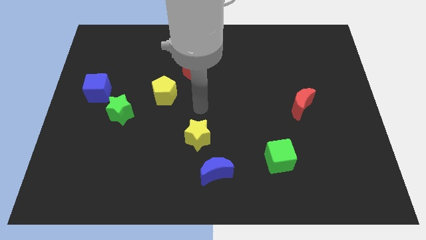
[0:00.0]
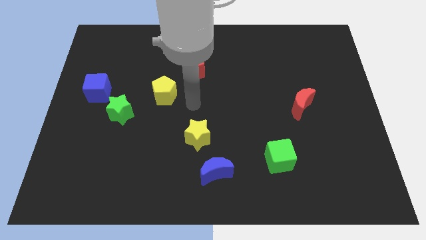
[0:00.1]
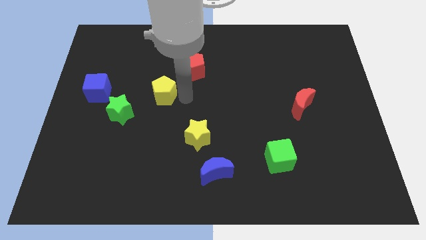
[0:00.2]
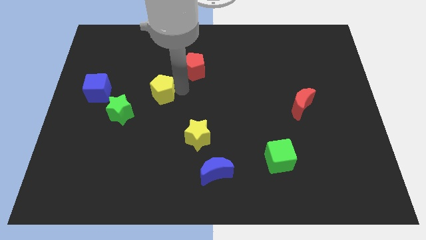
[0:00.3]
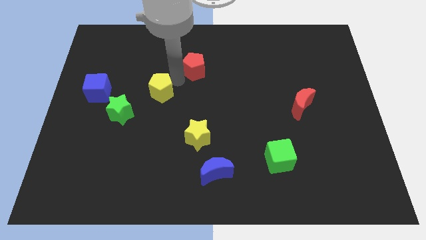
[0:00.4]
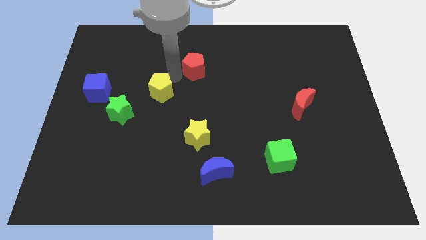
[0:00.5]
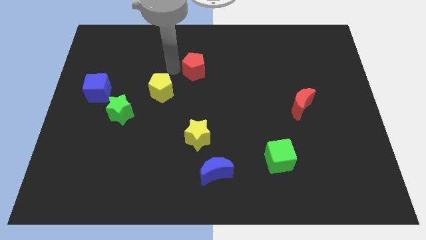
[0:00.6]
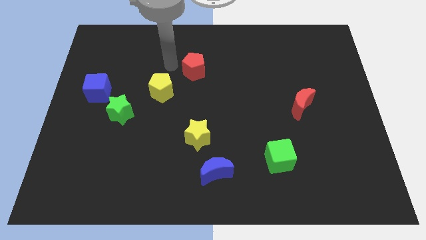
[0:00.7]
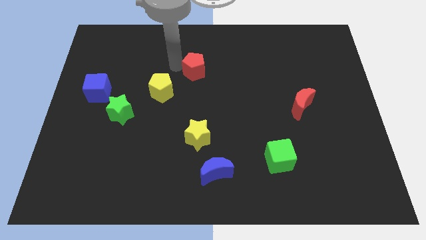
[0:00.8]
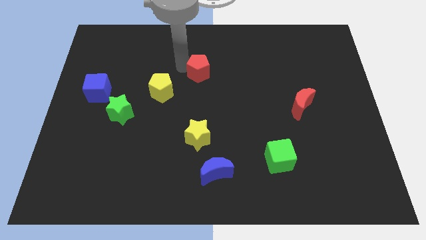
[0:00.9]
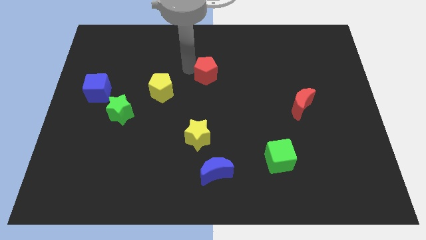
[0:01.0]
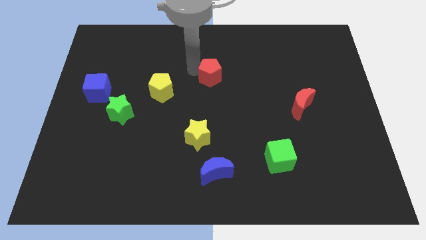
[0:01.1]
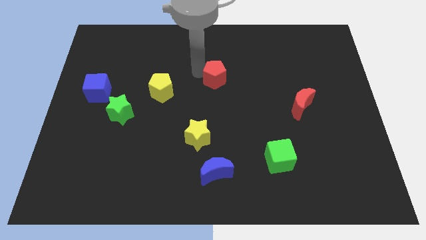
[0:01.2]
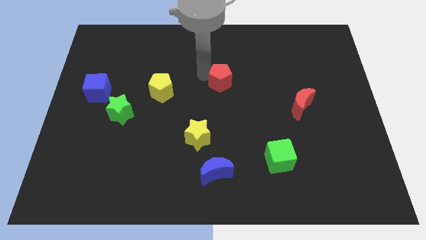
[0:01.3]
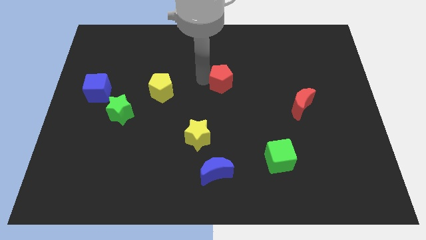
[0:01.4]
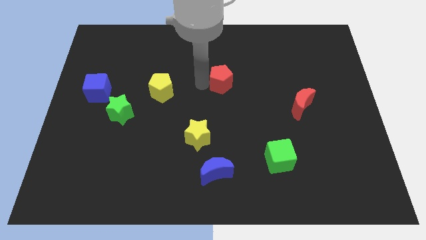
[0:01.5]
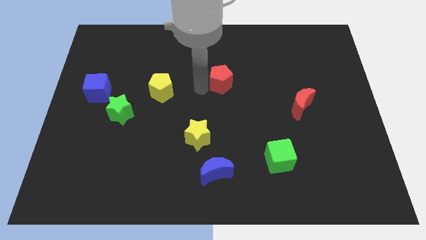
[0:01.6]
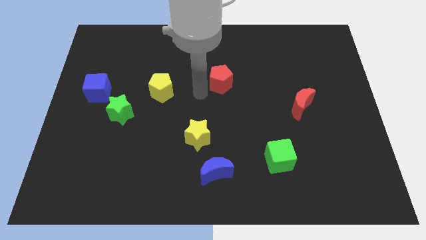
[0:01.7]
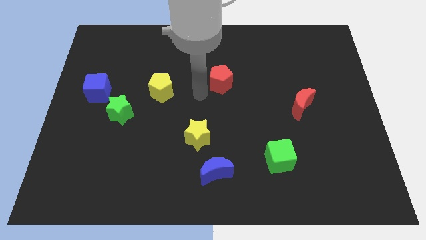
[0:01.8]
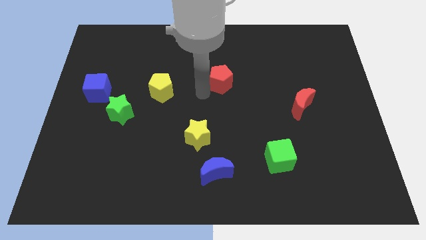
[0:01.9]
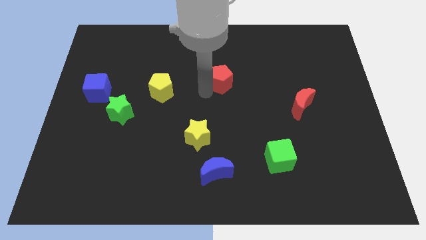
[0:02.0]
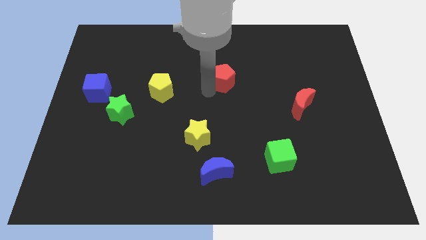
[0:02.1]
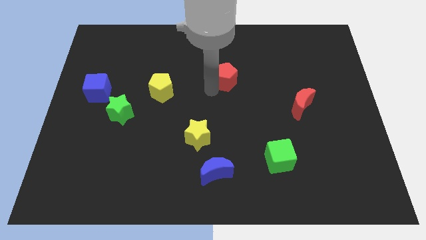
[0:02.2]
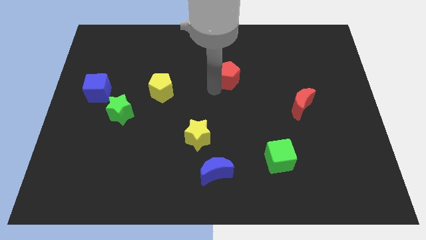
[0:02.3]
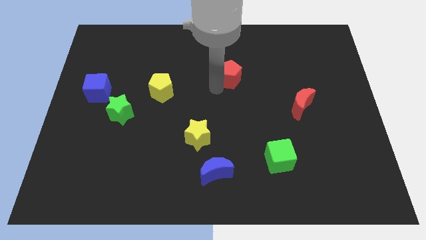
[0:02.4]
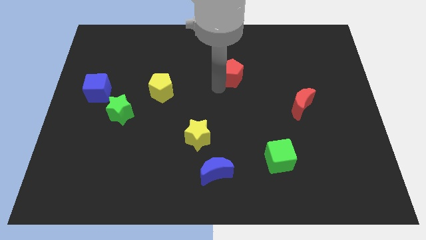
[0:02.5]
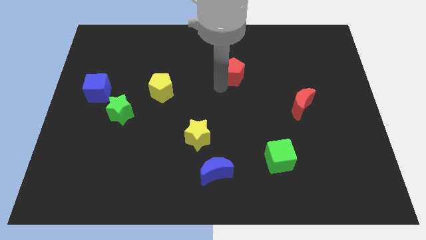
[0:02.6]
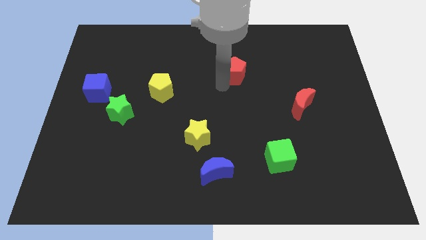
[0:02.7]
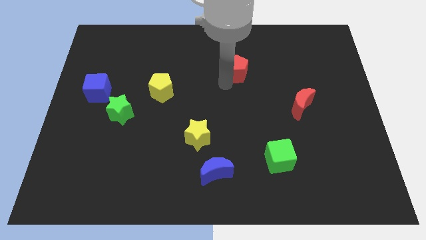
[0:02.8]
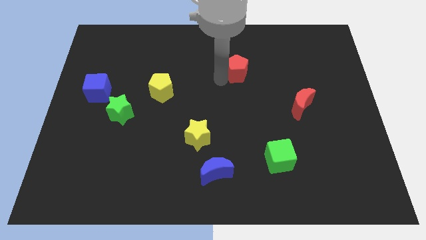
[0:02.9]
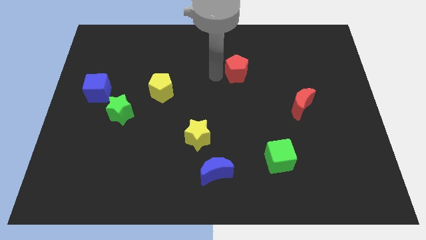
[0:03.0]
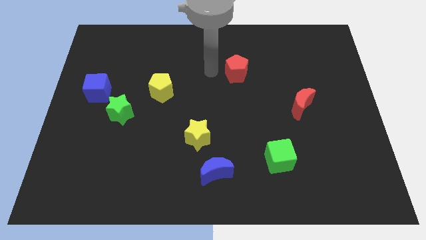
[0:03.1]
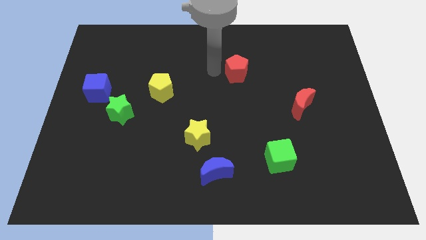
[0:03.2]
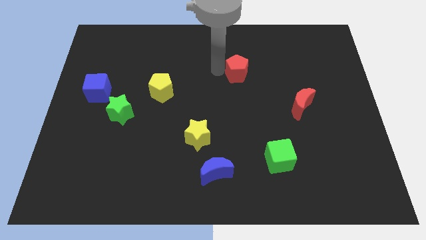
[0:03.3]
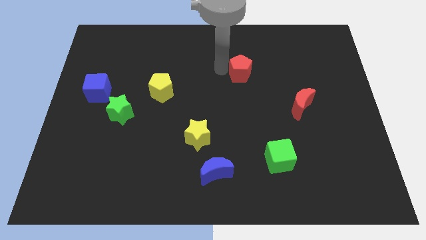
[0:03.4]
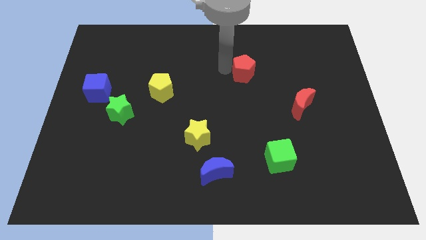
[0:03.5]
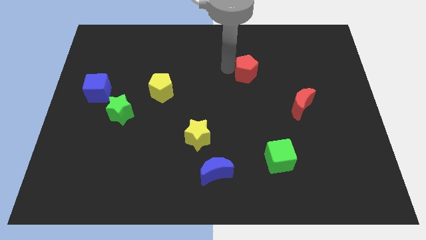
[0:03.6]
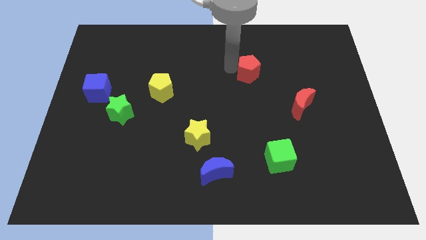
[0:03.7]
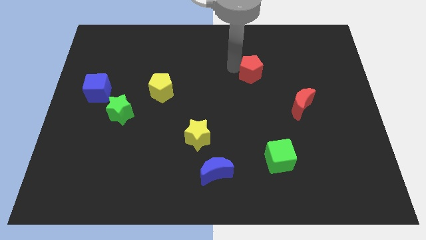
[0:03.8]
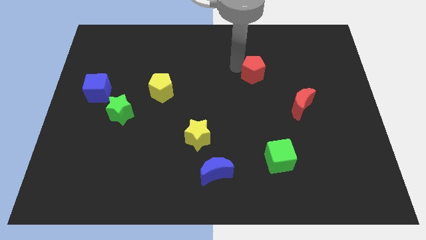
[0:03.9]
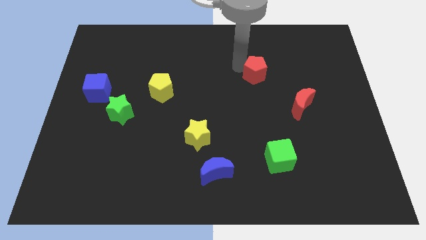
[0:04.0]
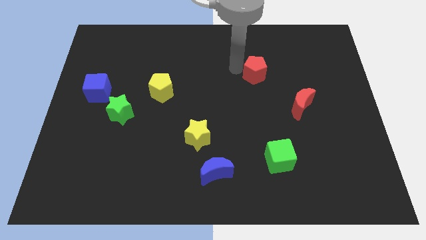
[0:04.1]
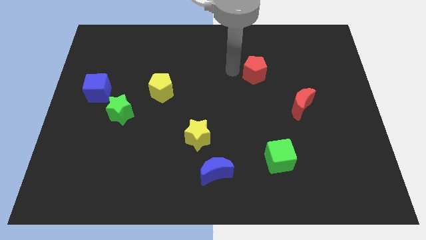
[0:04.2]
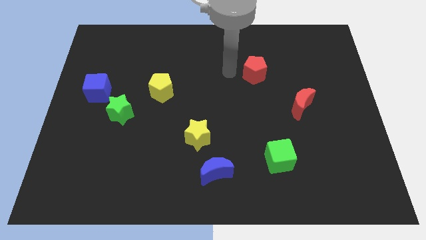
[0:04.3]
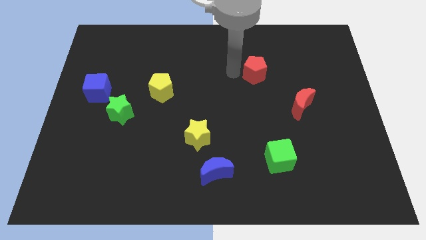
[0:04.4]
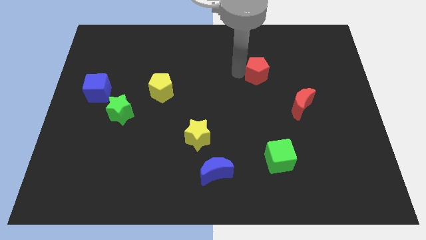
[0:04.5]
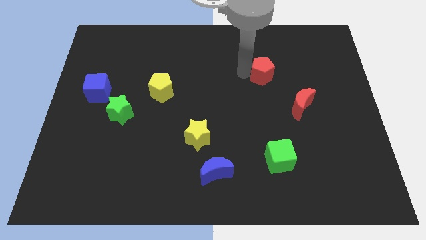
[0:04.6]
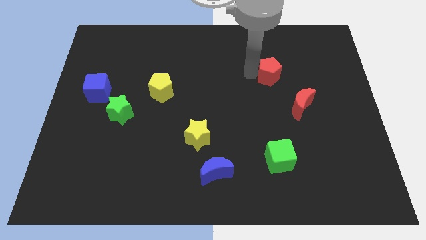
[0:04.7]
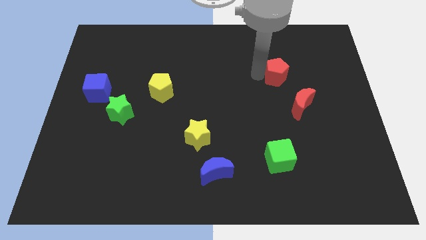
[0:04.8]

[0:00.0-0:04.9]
slide the red pentagon right

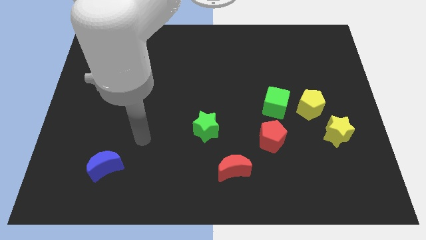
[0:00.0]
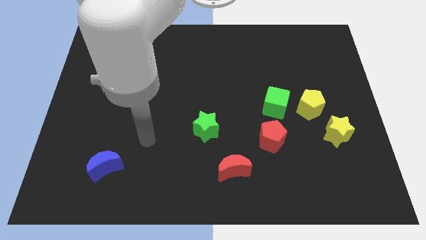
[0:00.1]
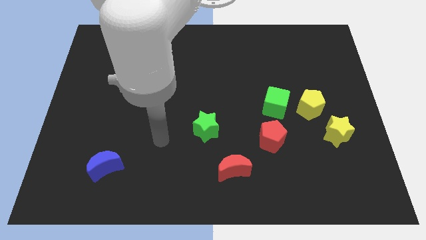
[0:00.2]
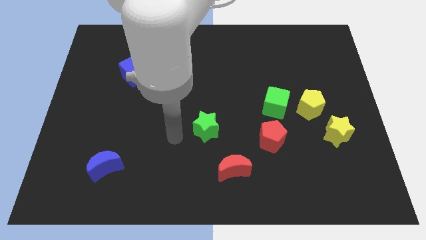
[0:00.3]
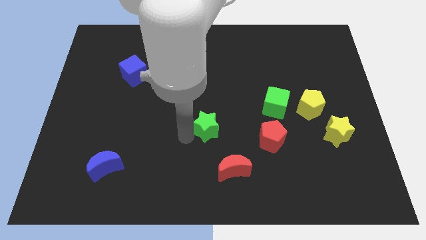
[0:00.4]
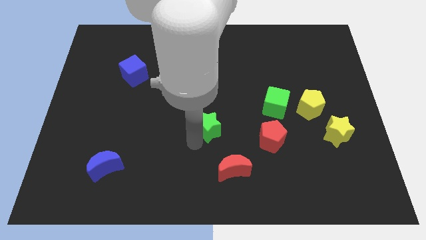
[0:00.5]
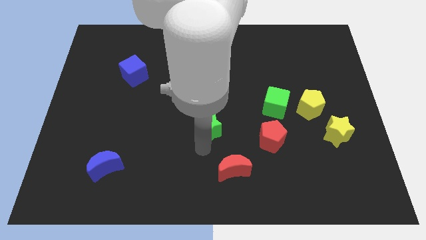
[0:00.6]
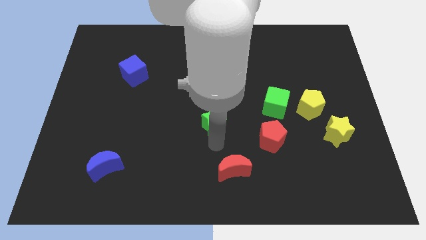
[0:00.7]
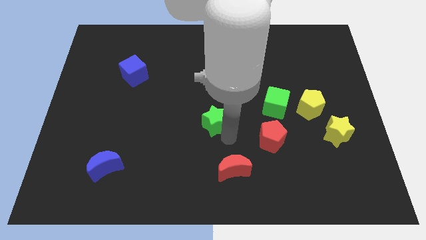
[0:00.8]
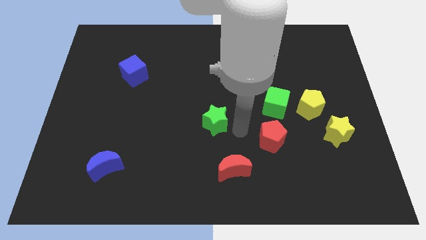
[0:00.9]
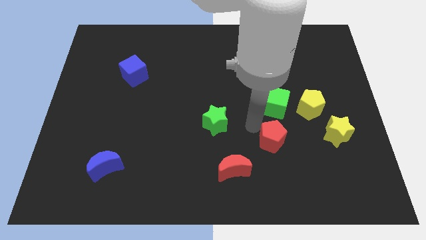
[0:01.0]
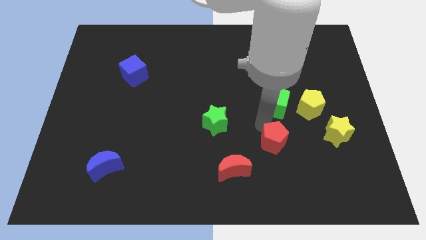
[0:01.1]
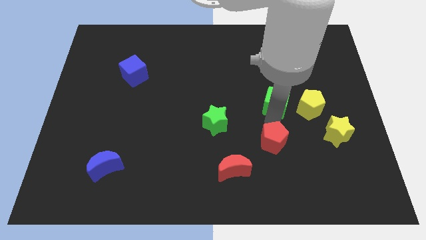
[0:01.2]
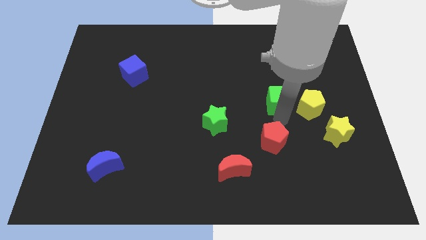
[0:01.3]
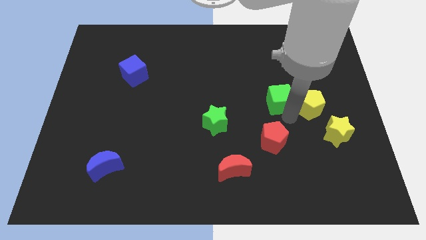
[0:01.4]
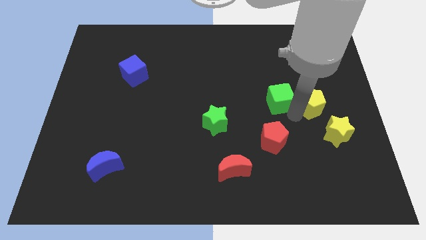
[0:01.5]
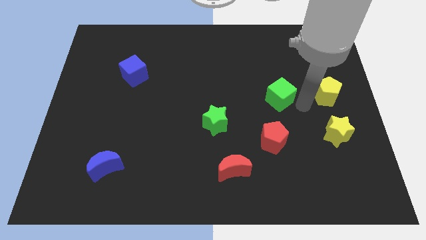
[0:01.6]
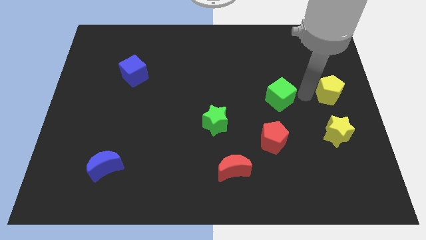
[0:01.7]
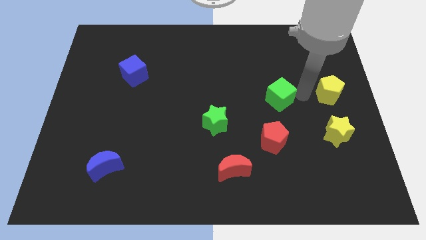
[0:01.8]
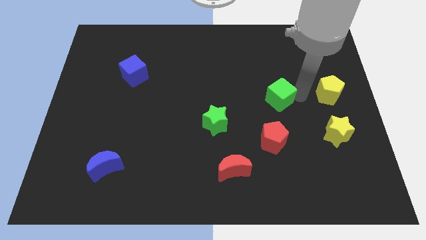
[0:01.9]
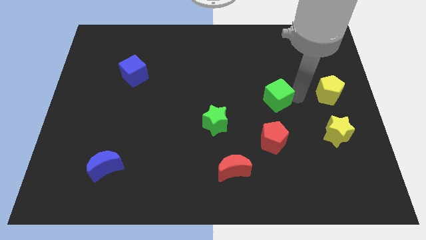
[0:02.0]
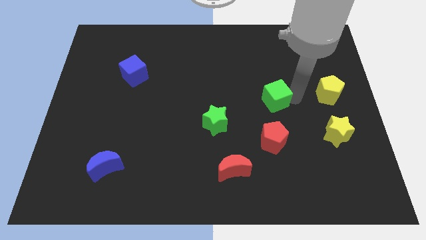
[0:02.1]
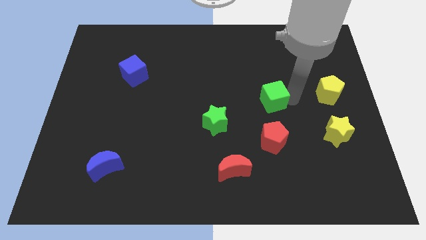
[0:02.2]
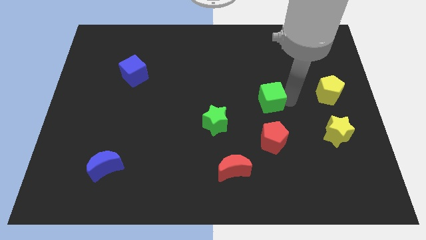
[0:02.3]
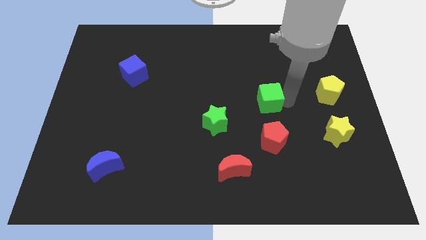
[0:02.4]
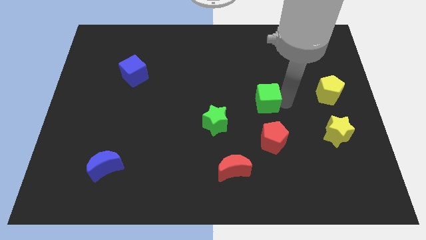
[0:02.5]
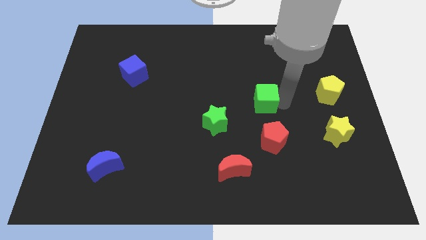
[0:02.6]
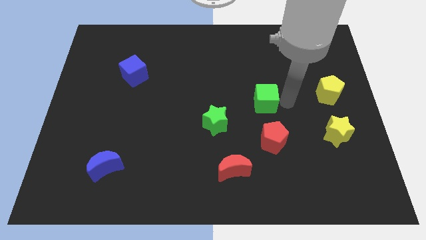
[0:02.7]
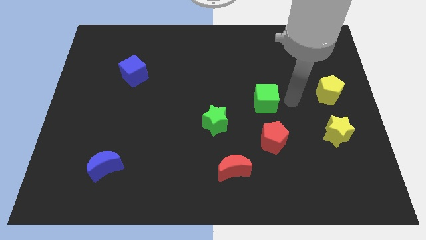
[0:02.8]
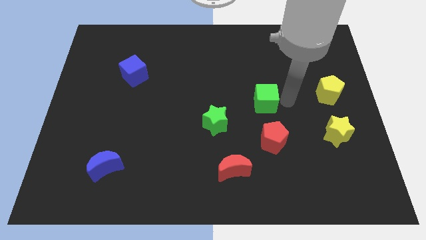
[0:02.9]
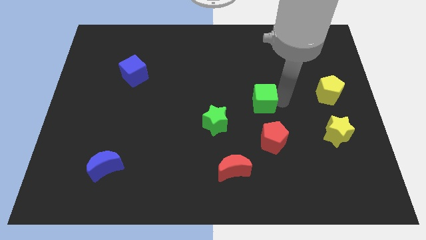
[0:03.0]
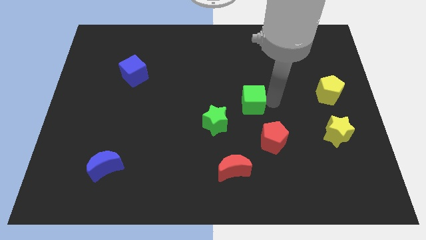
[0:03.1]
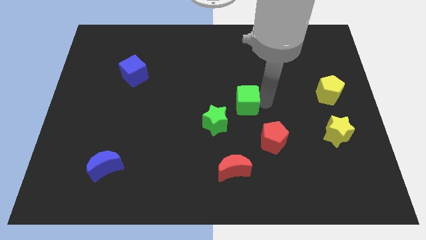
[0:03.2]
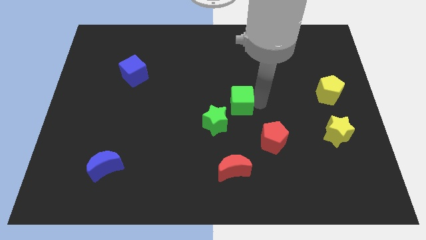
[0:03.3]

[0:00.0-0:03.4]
move the green cube left slightly
